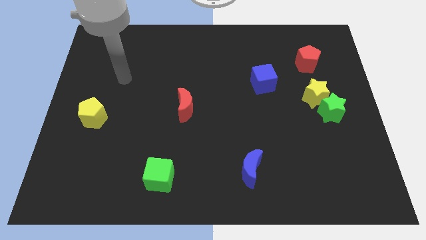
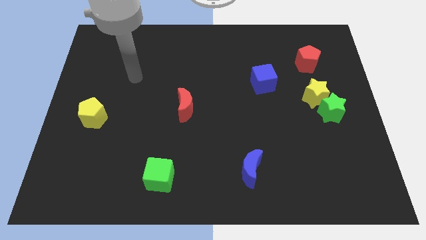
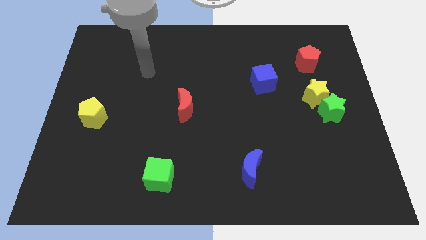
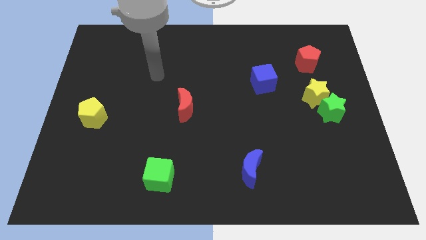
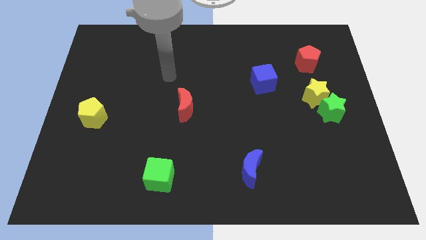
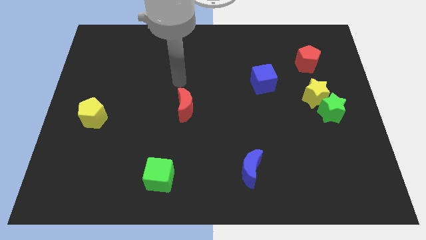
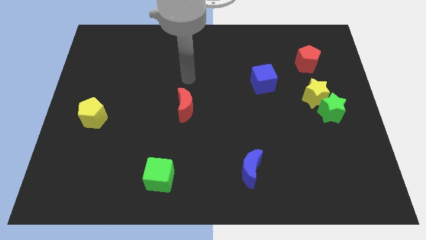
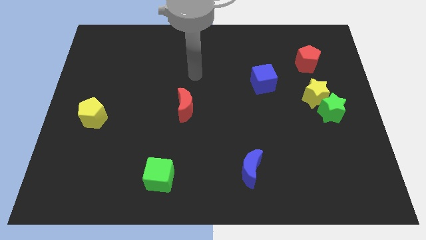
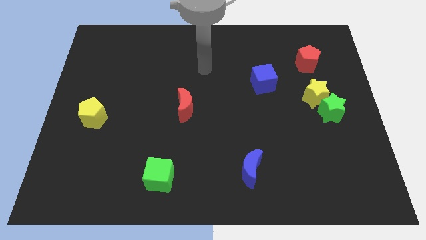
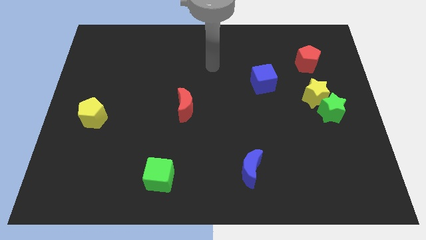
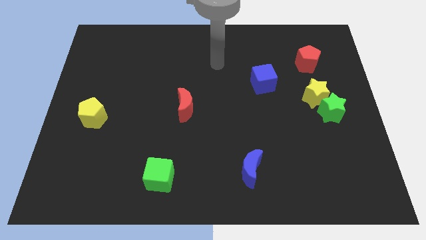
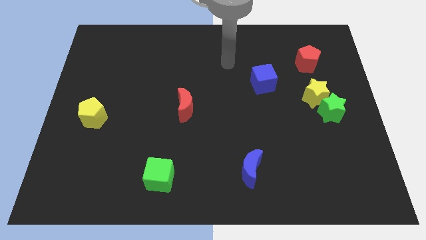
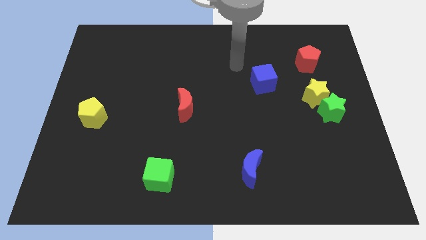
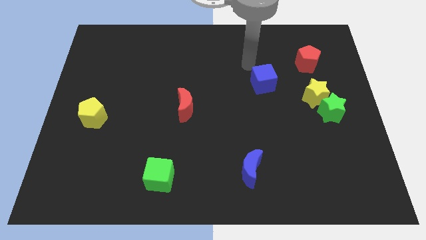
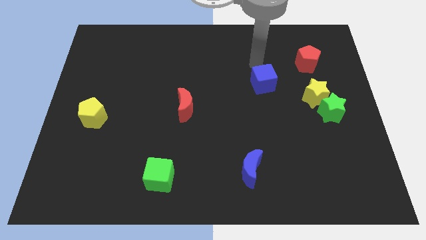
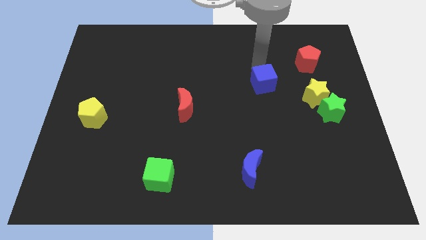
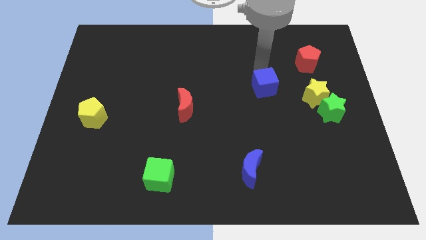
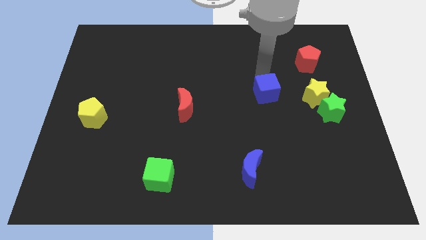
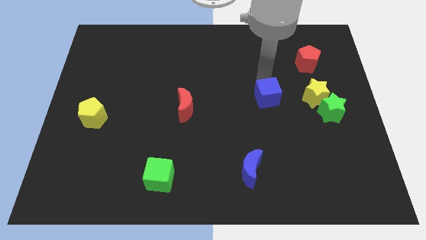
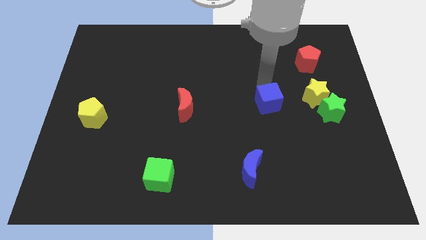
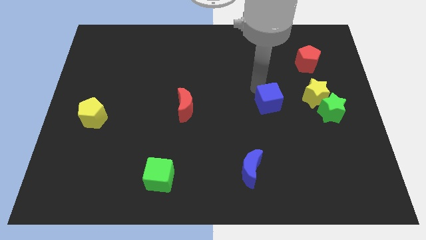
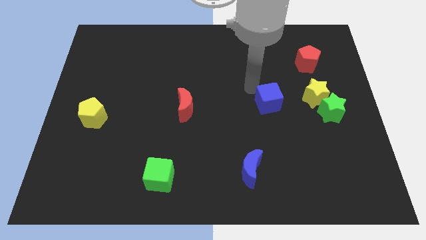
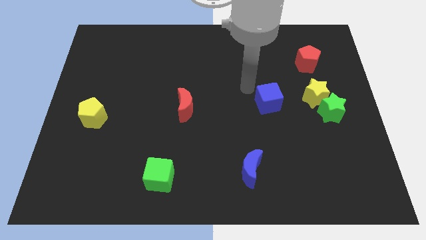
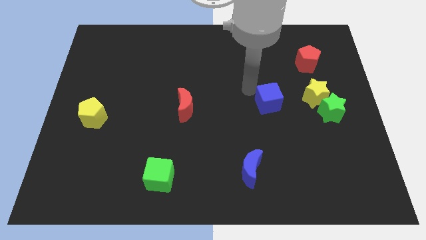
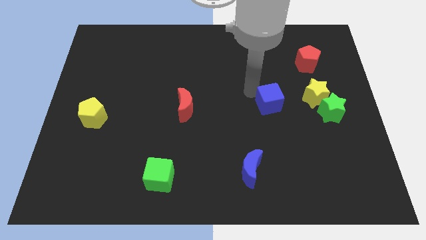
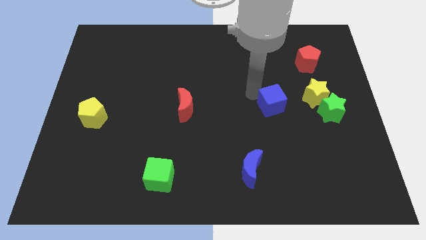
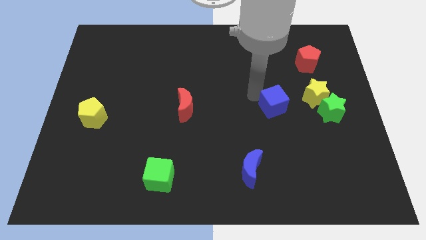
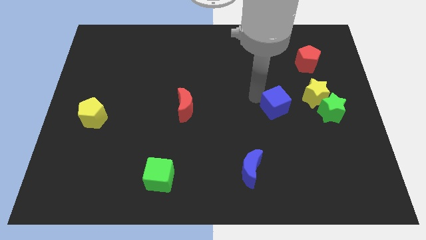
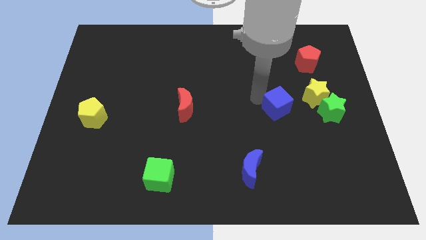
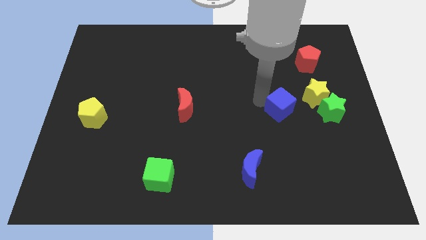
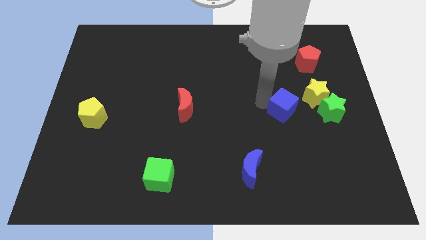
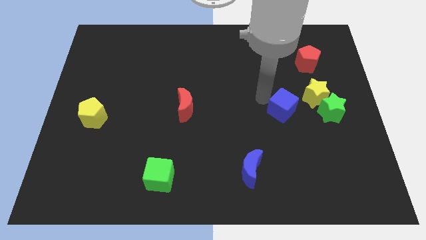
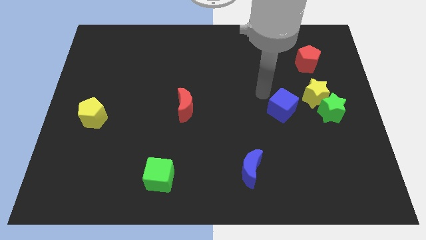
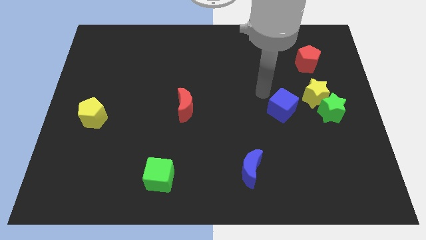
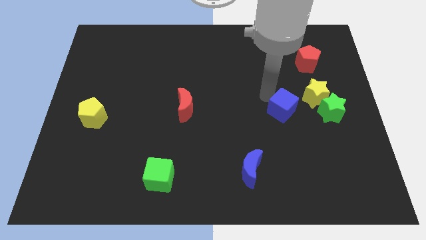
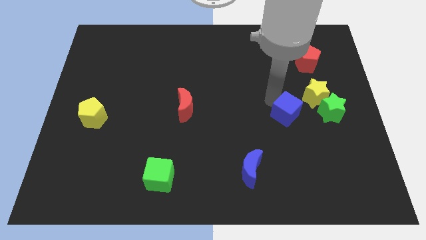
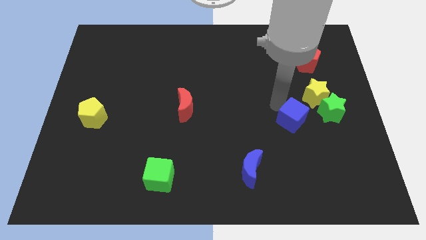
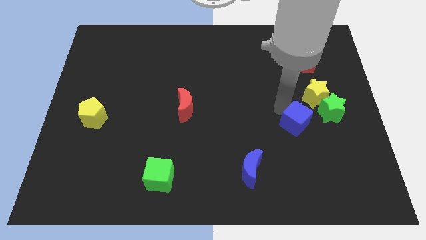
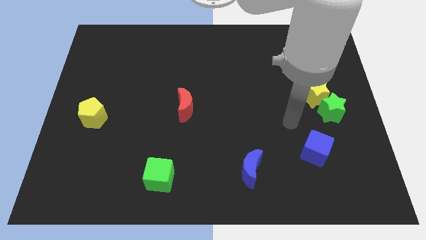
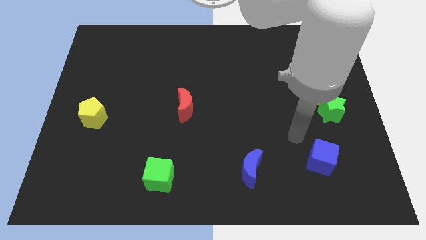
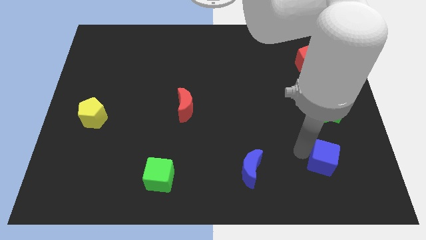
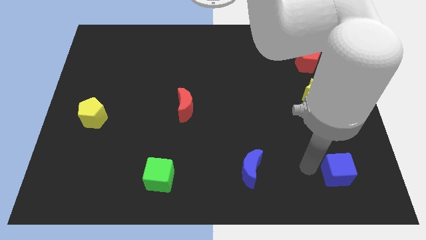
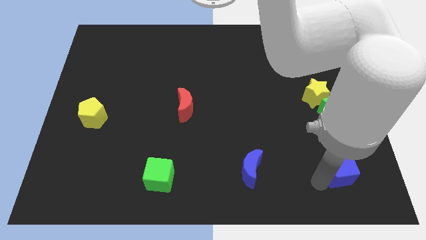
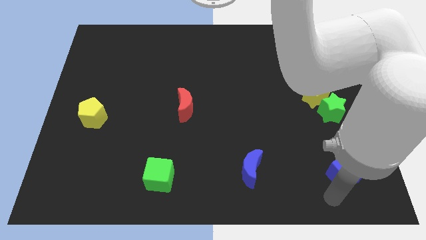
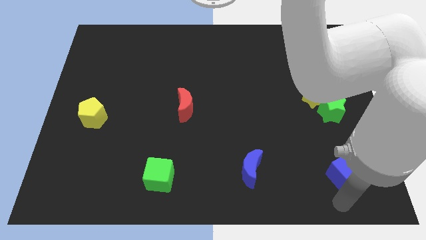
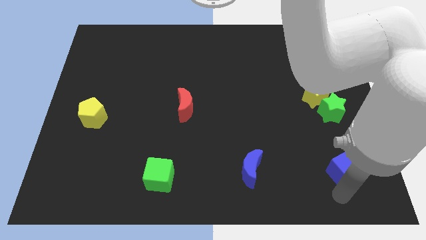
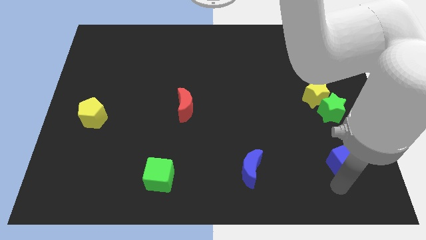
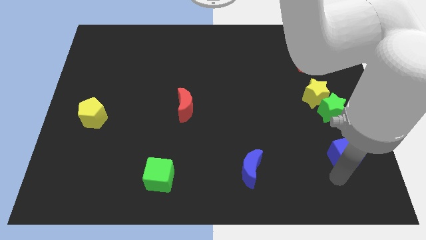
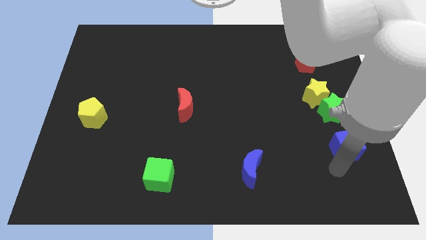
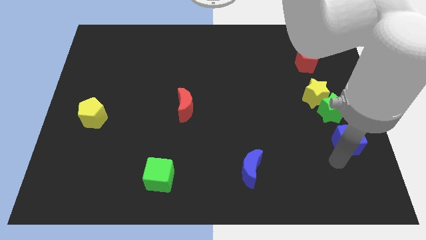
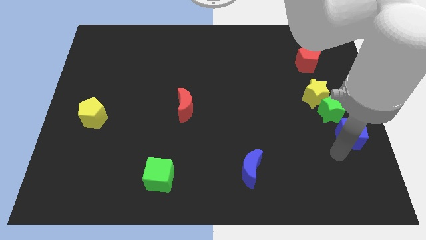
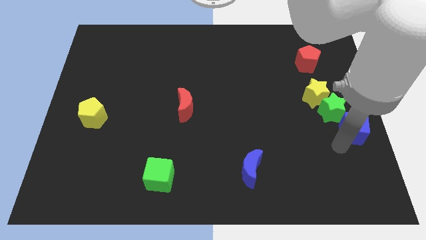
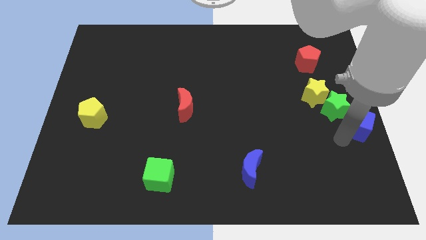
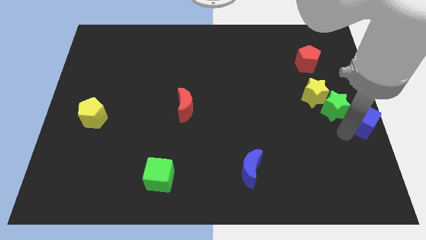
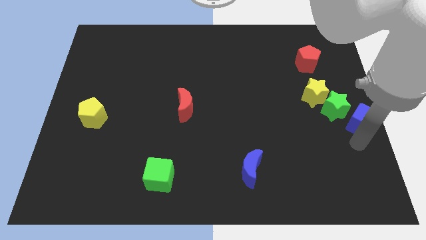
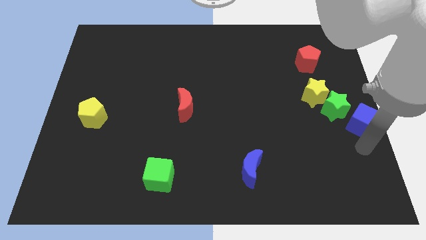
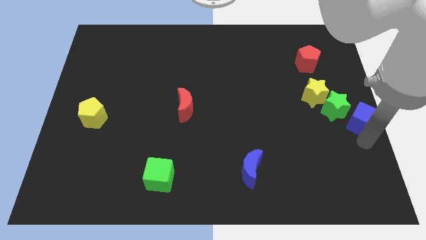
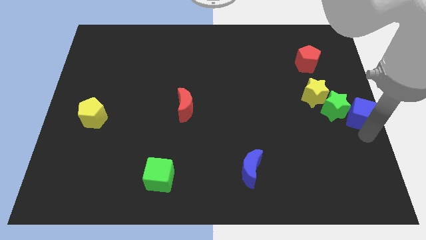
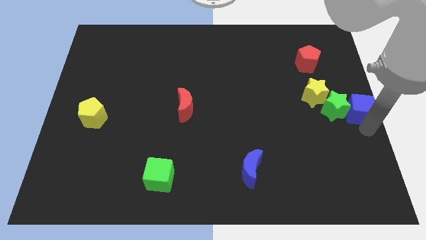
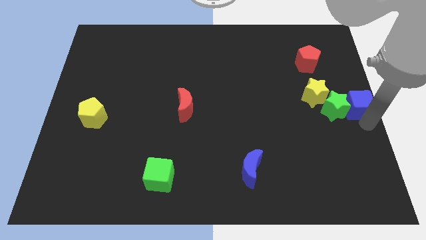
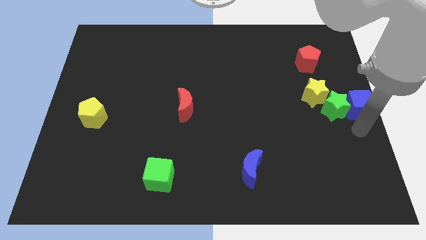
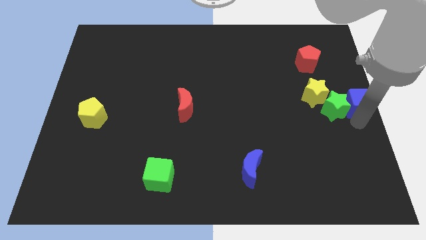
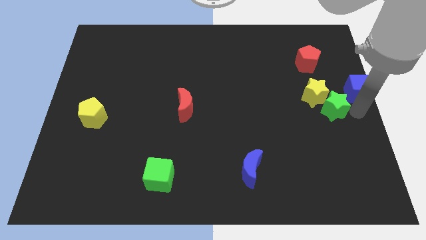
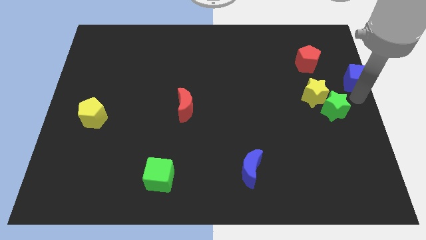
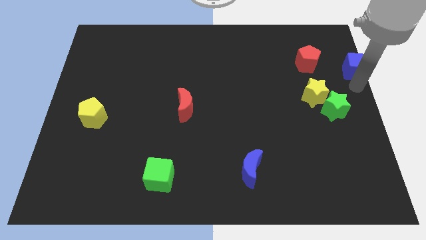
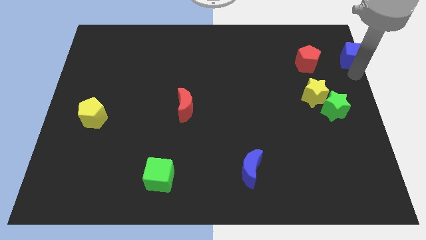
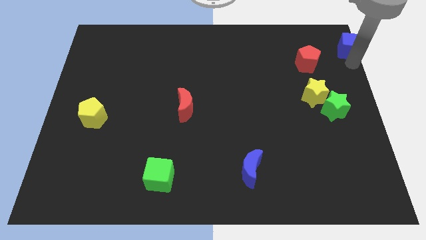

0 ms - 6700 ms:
move the blue cube to the top right
